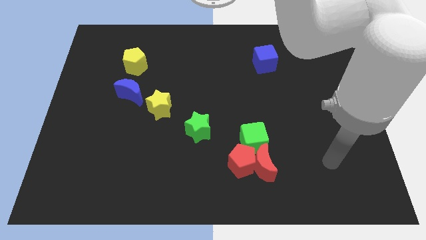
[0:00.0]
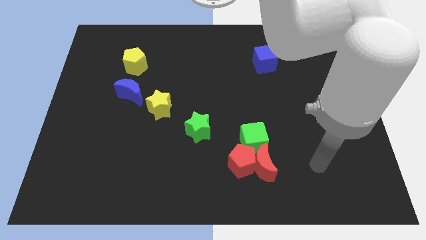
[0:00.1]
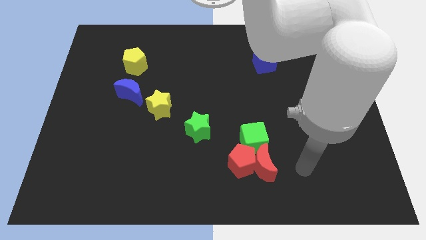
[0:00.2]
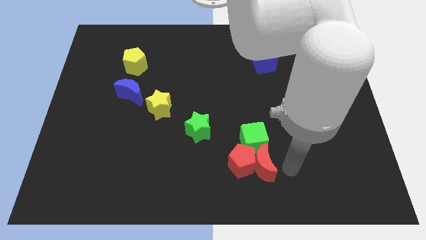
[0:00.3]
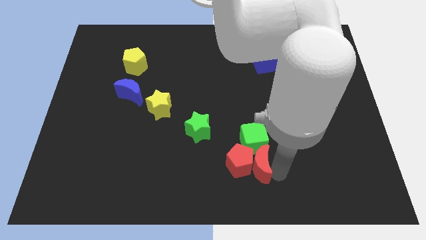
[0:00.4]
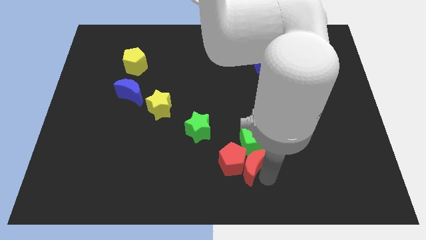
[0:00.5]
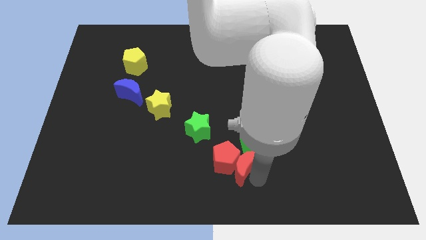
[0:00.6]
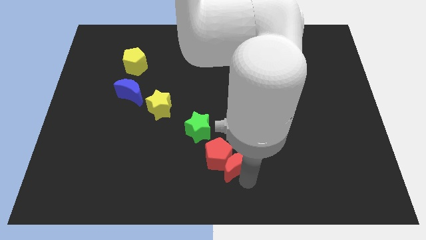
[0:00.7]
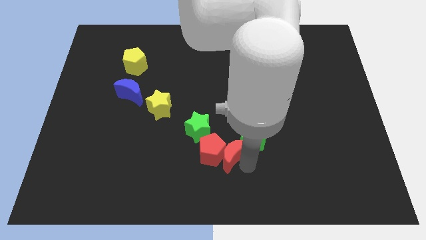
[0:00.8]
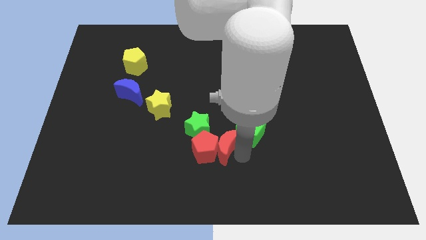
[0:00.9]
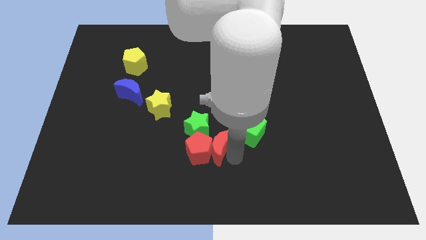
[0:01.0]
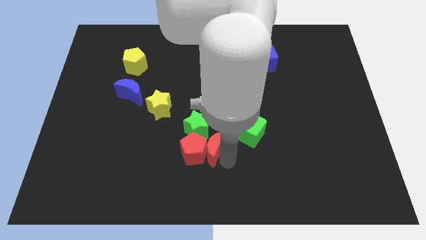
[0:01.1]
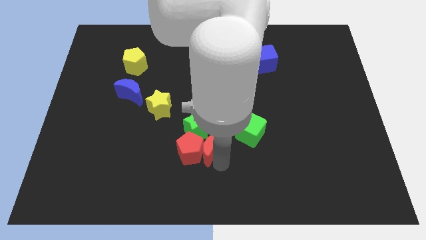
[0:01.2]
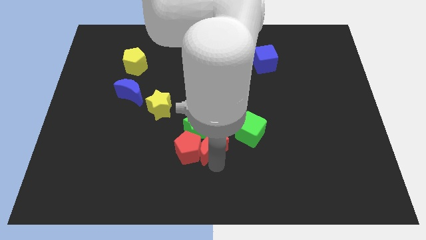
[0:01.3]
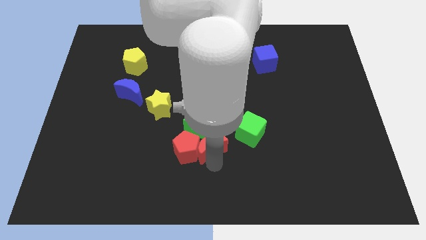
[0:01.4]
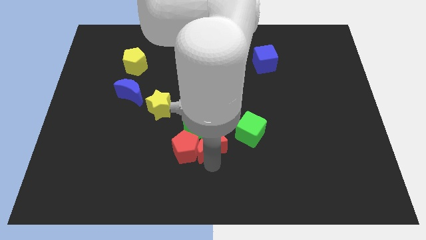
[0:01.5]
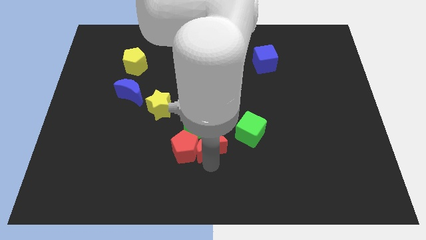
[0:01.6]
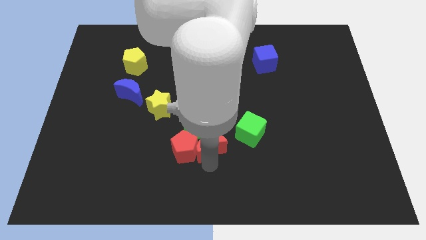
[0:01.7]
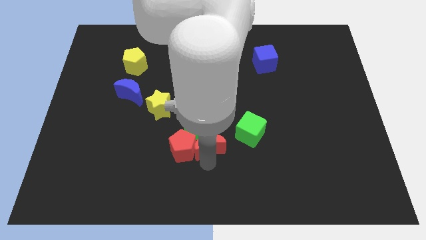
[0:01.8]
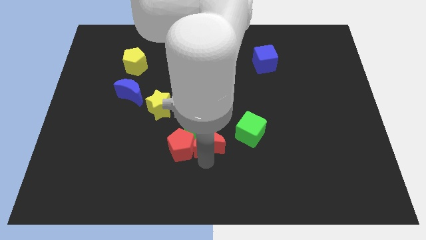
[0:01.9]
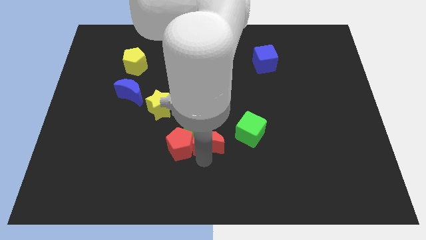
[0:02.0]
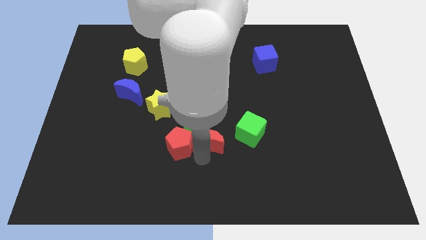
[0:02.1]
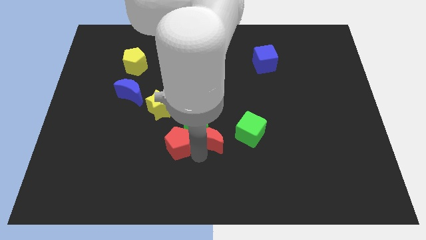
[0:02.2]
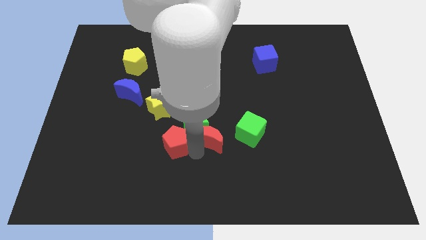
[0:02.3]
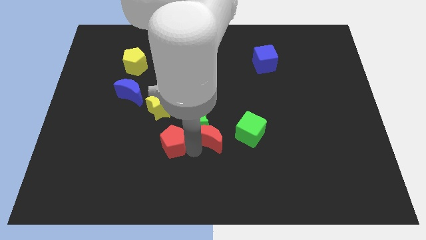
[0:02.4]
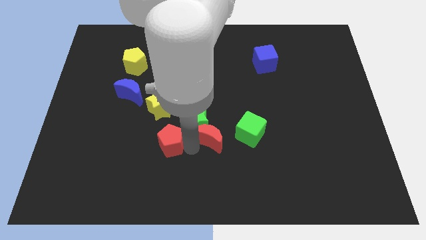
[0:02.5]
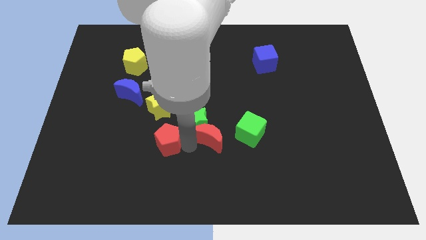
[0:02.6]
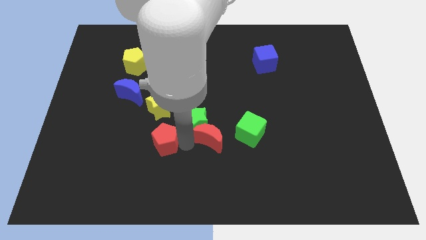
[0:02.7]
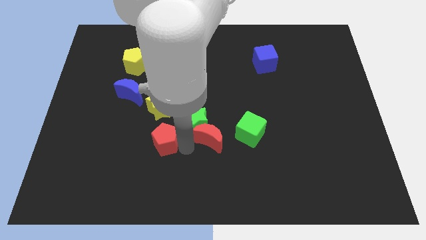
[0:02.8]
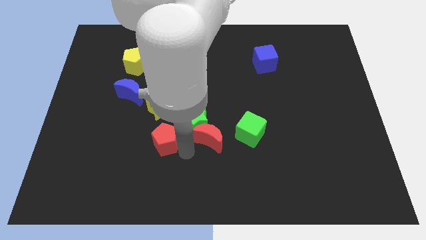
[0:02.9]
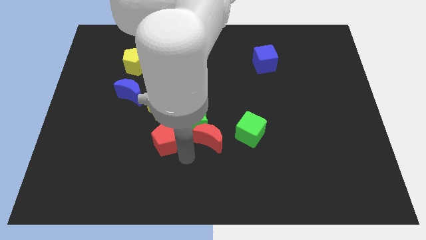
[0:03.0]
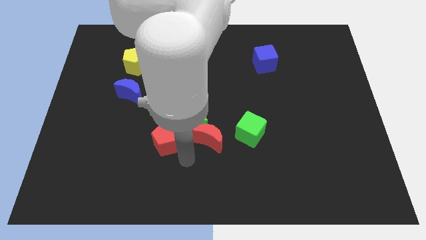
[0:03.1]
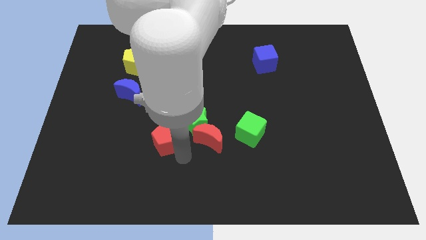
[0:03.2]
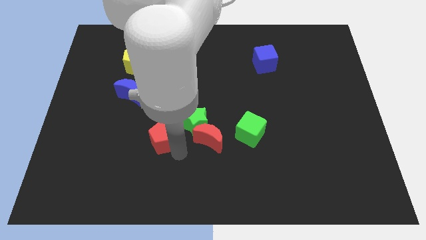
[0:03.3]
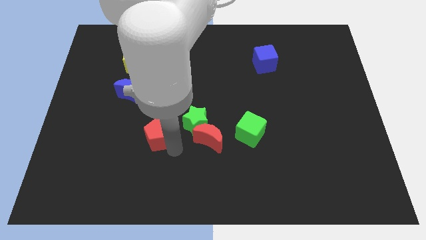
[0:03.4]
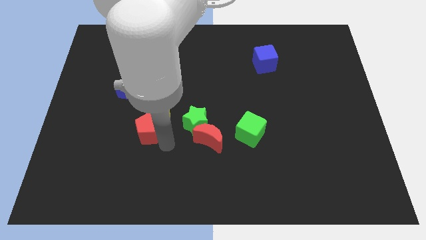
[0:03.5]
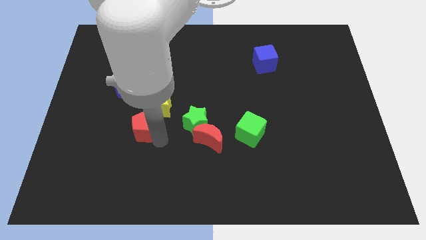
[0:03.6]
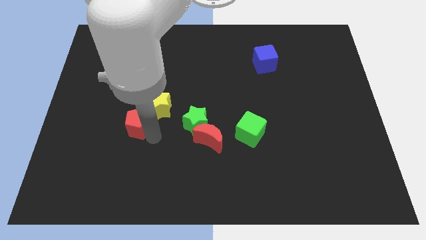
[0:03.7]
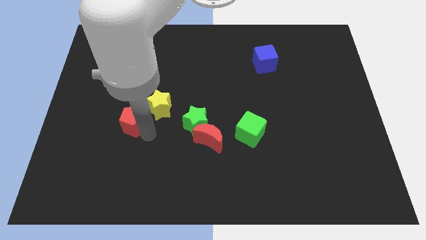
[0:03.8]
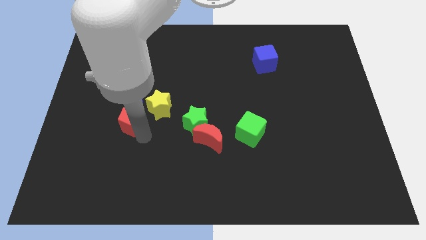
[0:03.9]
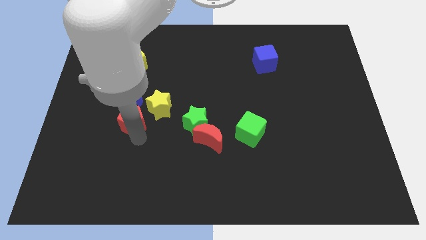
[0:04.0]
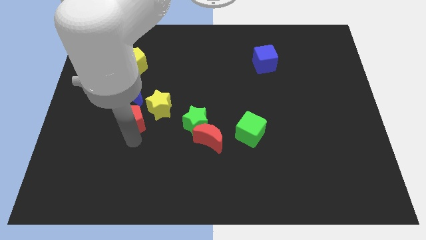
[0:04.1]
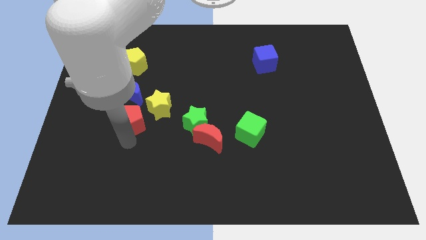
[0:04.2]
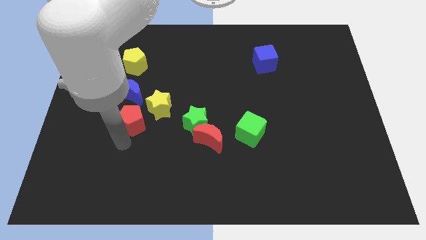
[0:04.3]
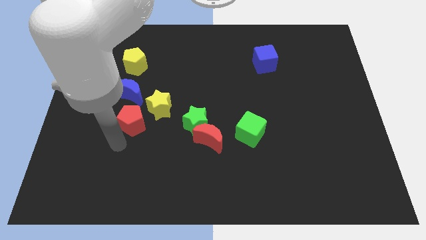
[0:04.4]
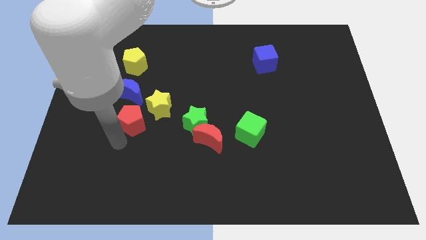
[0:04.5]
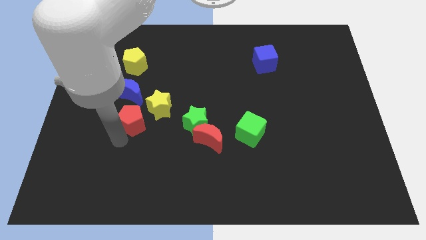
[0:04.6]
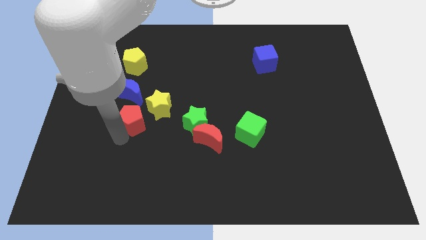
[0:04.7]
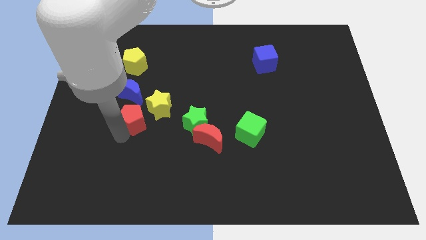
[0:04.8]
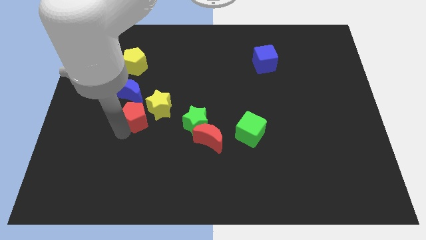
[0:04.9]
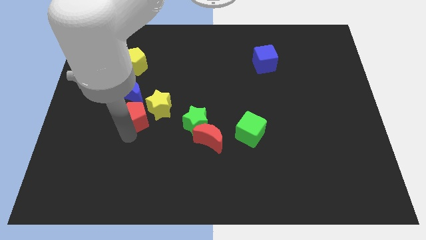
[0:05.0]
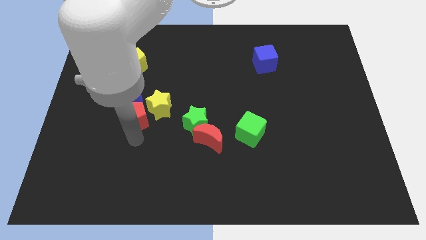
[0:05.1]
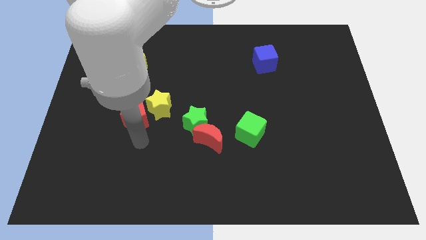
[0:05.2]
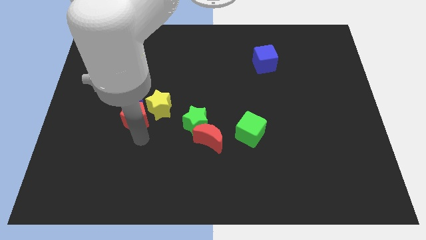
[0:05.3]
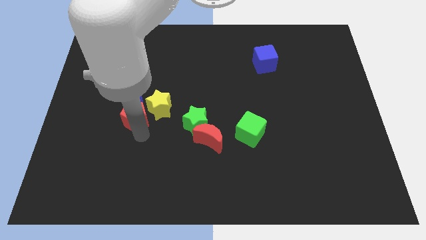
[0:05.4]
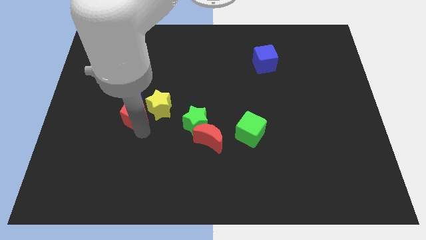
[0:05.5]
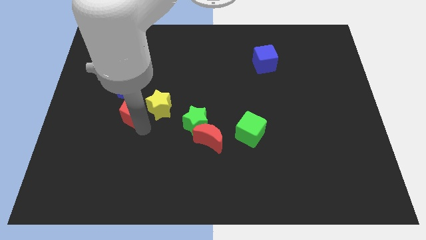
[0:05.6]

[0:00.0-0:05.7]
put the red pentagon to the blue moon

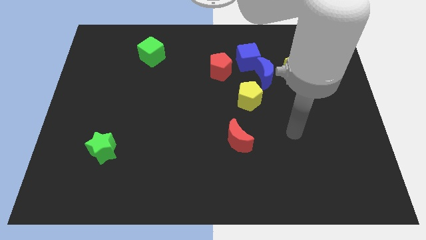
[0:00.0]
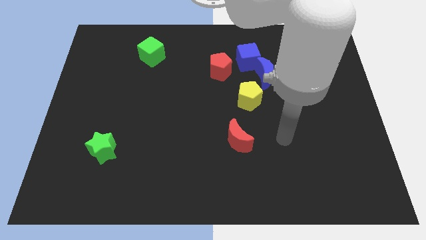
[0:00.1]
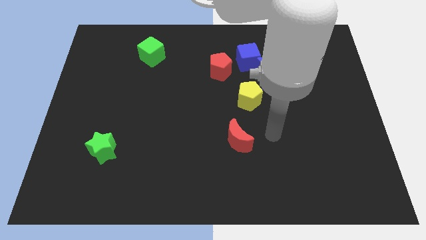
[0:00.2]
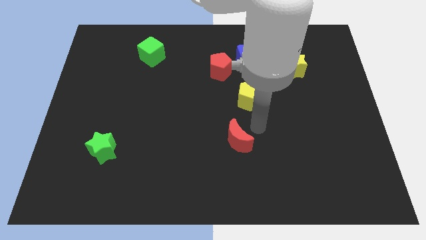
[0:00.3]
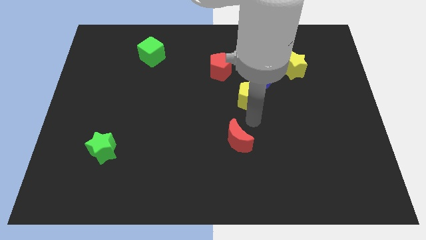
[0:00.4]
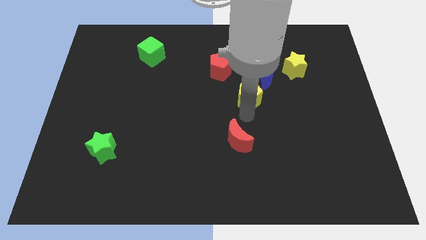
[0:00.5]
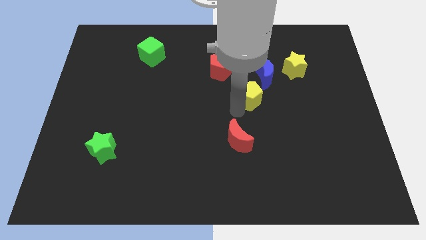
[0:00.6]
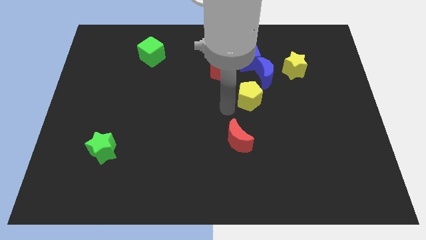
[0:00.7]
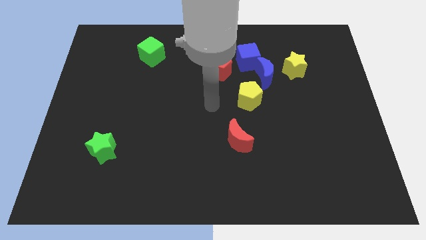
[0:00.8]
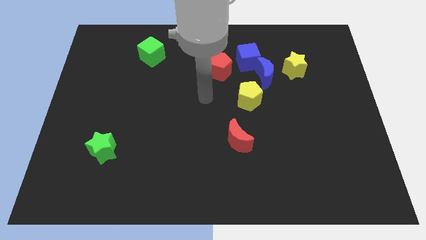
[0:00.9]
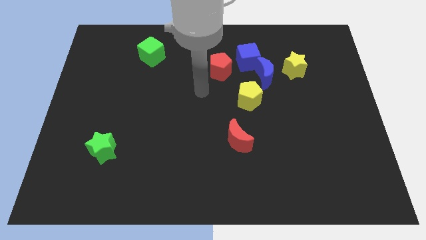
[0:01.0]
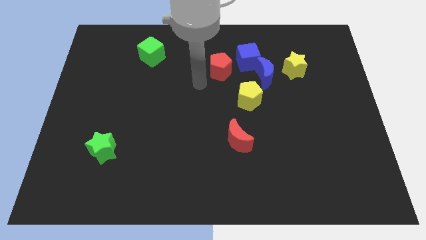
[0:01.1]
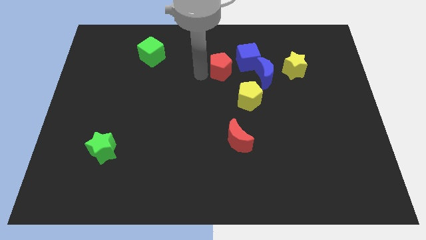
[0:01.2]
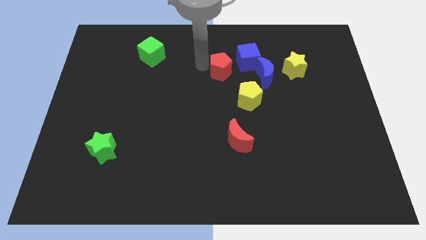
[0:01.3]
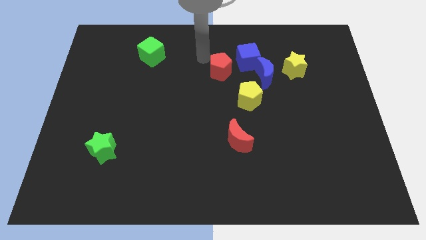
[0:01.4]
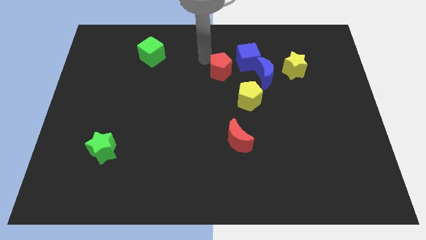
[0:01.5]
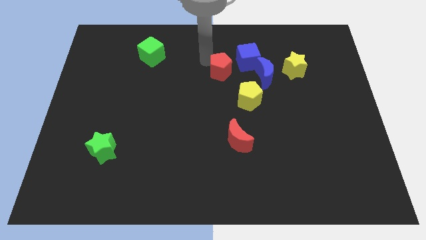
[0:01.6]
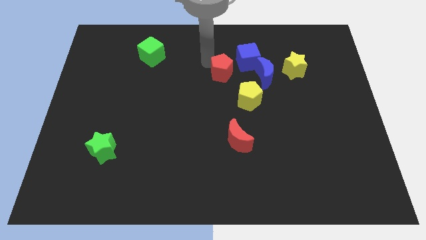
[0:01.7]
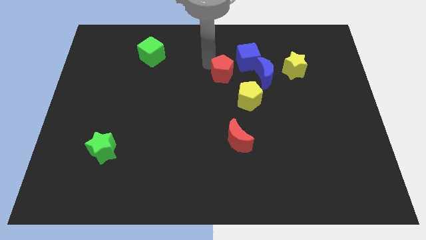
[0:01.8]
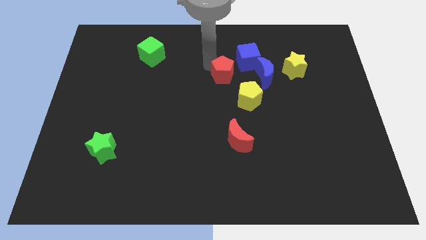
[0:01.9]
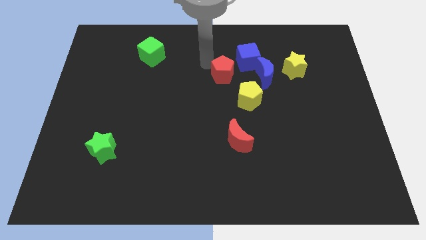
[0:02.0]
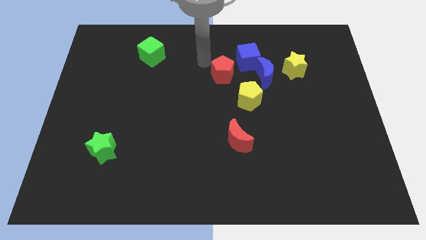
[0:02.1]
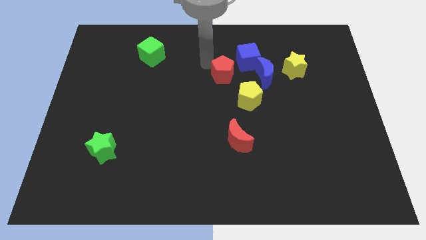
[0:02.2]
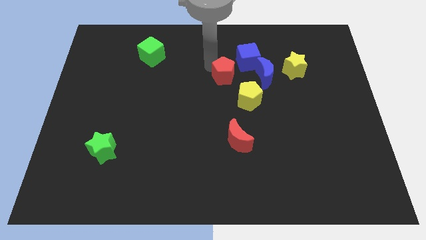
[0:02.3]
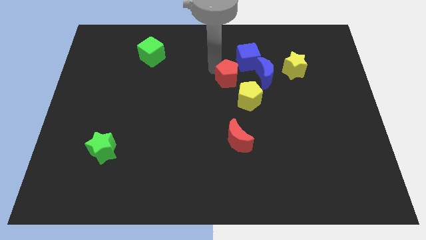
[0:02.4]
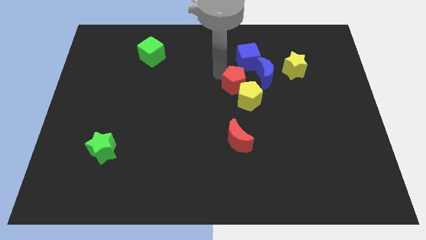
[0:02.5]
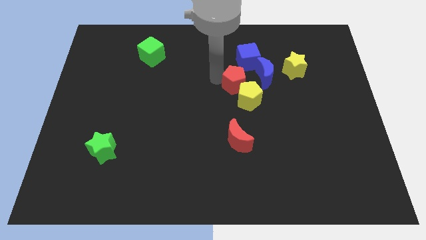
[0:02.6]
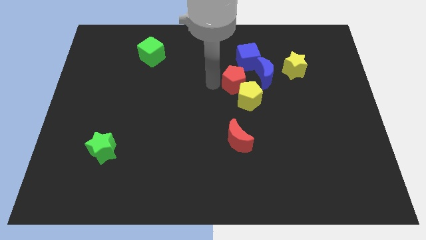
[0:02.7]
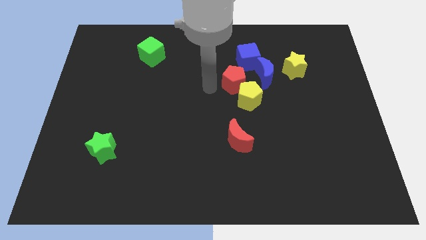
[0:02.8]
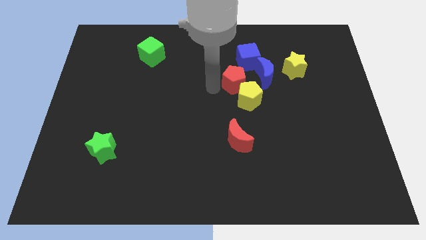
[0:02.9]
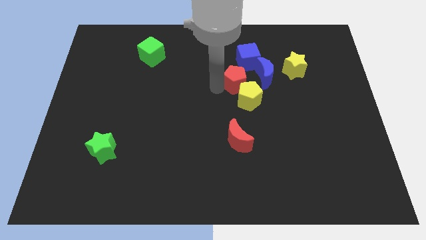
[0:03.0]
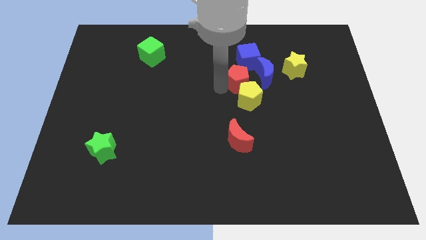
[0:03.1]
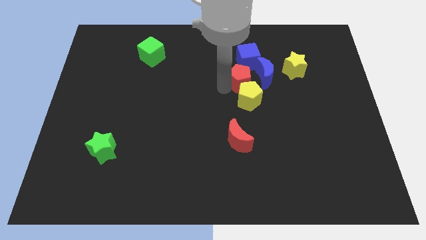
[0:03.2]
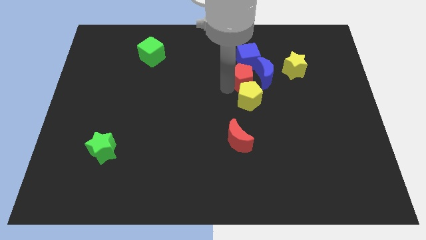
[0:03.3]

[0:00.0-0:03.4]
slide the red pentagon close to the blue moon
